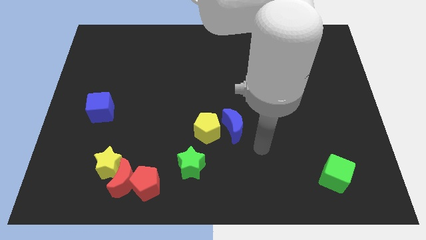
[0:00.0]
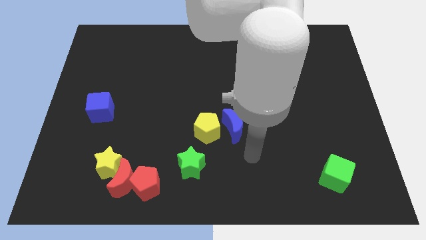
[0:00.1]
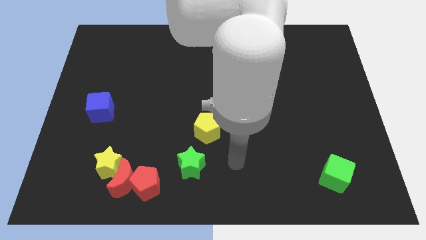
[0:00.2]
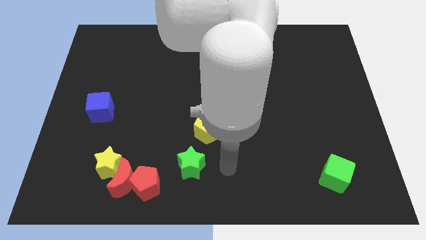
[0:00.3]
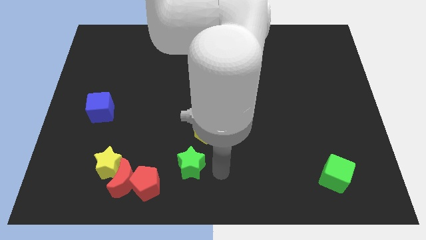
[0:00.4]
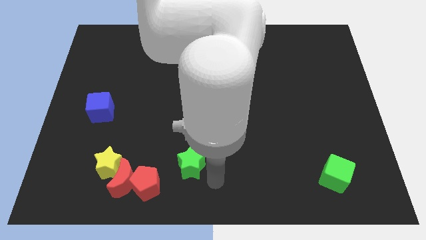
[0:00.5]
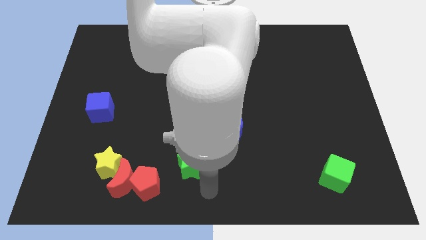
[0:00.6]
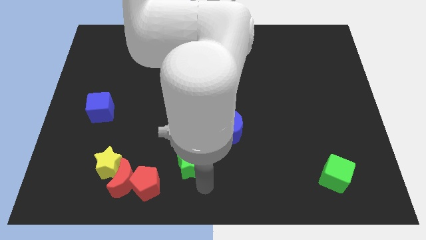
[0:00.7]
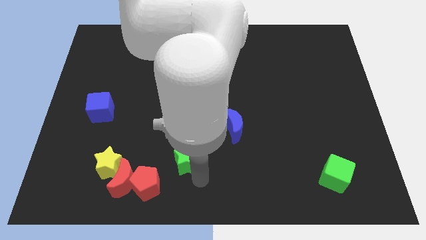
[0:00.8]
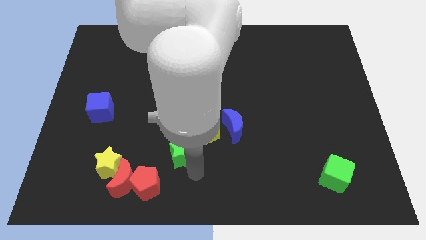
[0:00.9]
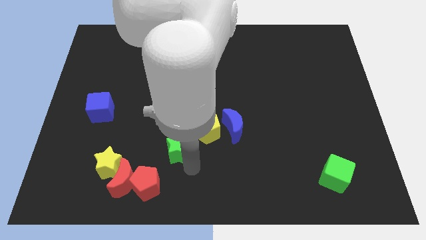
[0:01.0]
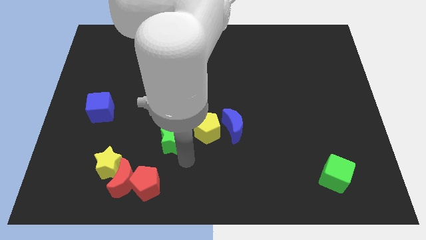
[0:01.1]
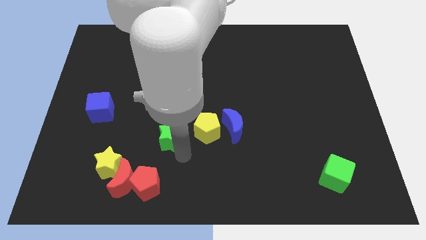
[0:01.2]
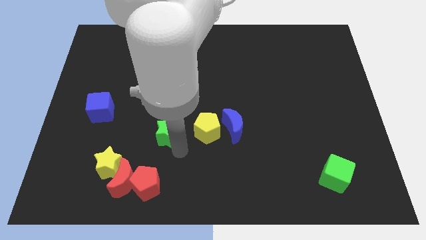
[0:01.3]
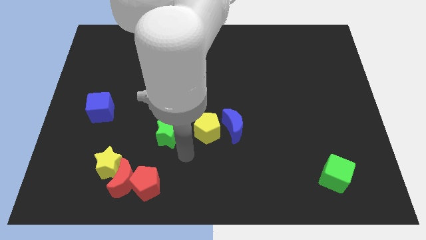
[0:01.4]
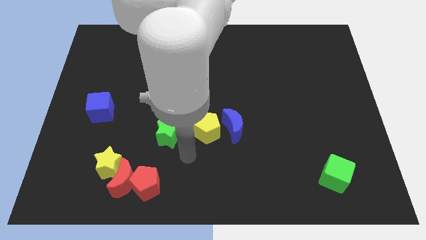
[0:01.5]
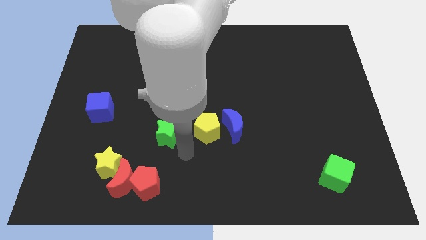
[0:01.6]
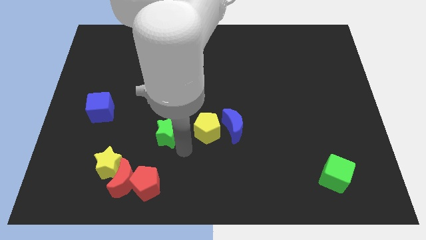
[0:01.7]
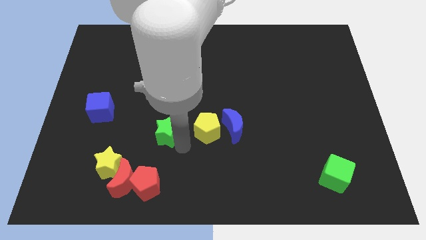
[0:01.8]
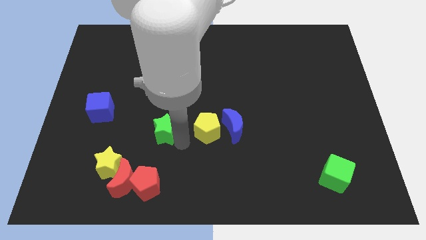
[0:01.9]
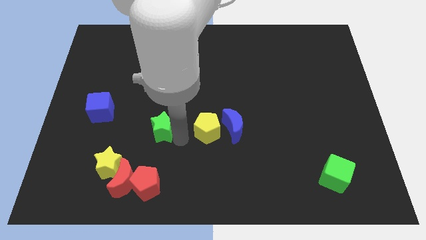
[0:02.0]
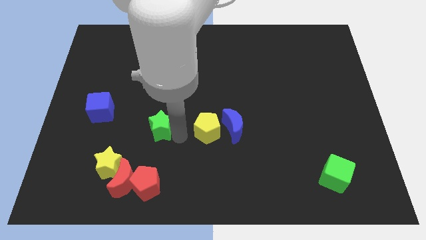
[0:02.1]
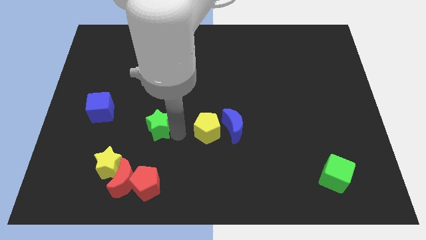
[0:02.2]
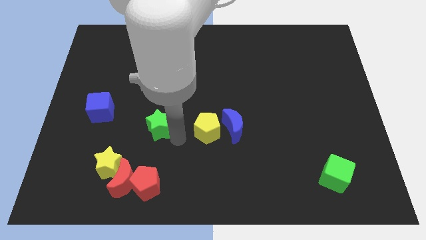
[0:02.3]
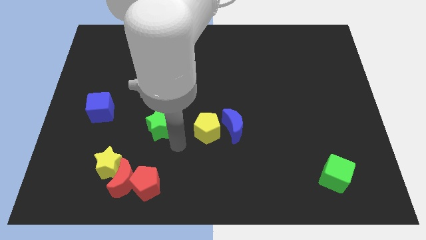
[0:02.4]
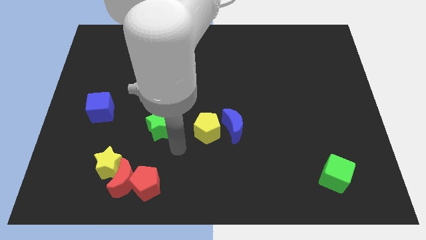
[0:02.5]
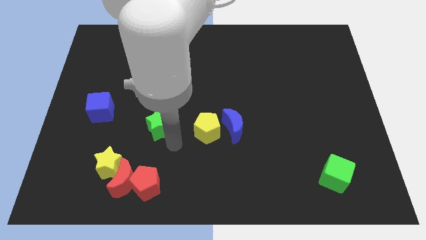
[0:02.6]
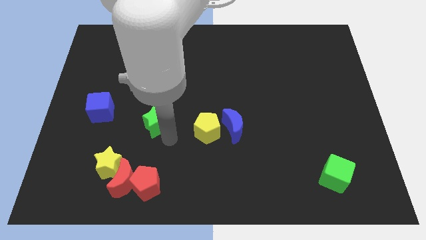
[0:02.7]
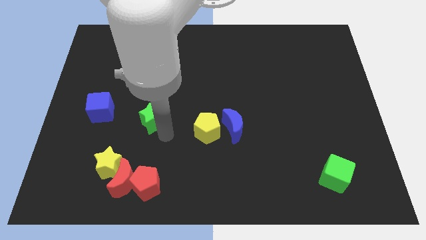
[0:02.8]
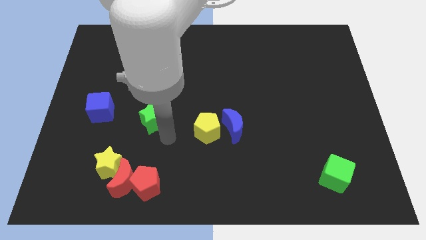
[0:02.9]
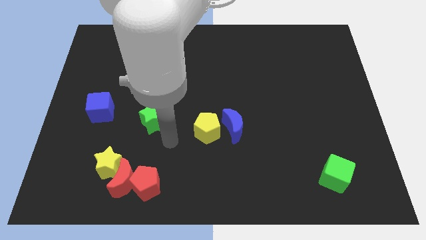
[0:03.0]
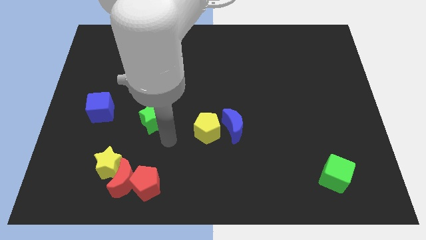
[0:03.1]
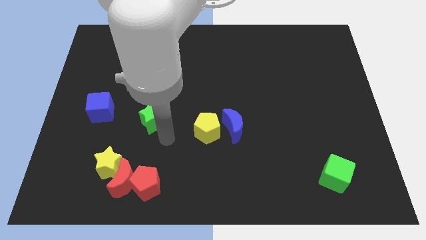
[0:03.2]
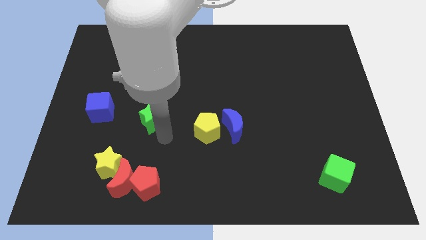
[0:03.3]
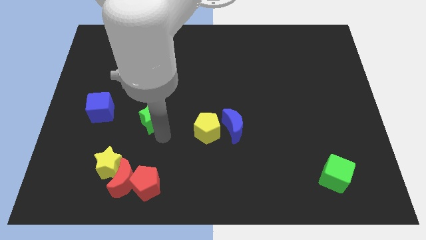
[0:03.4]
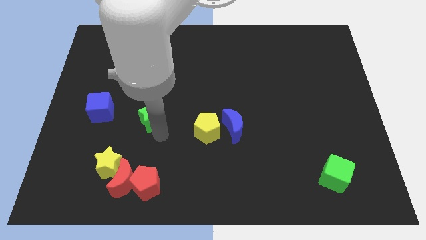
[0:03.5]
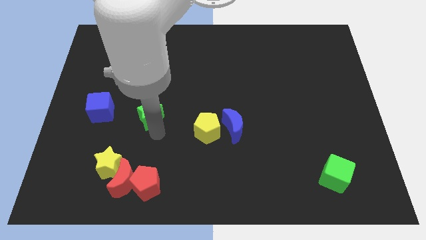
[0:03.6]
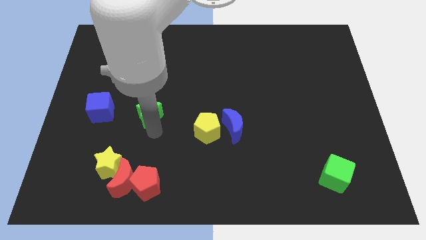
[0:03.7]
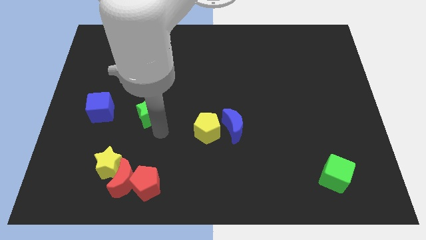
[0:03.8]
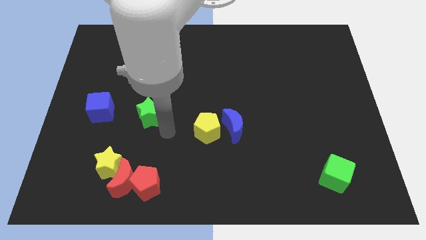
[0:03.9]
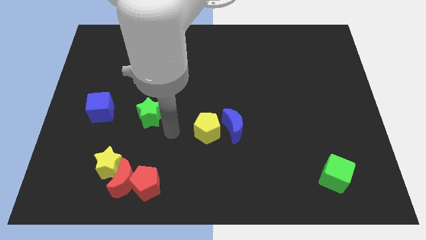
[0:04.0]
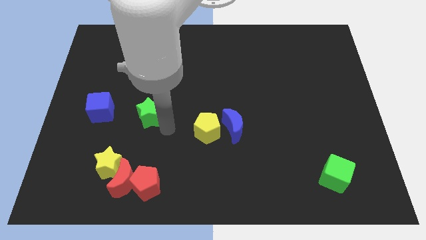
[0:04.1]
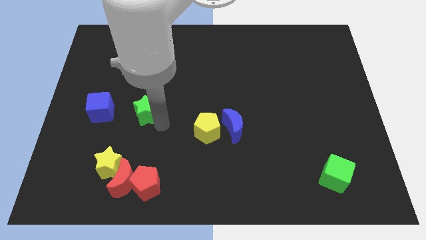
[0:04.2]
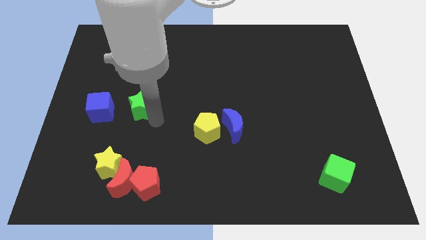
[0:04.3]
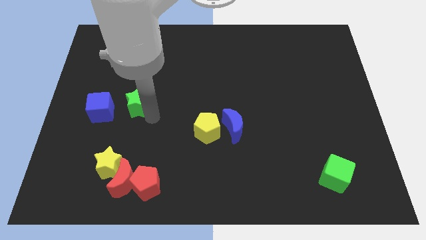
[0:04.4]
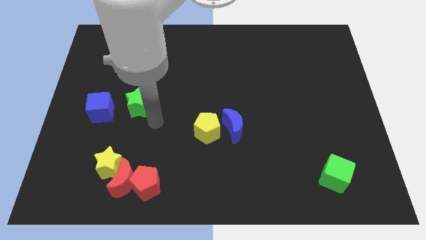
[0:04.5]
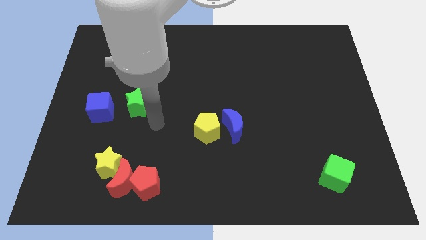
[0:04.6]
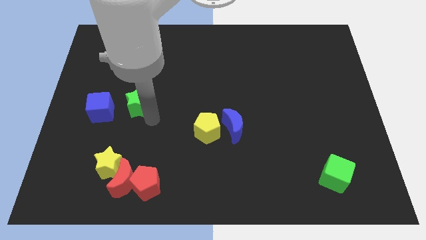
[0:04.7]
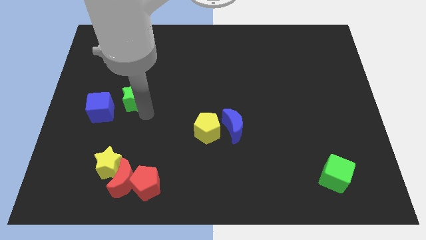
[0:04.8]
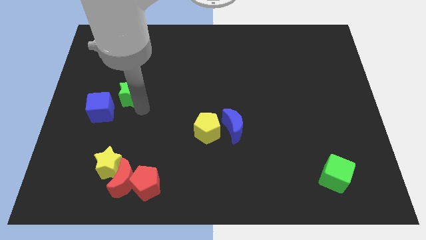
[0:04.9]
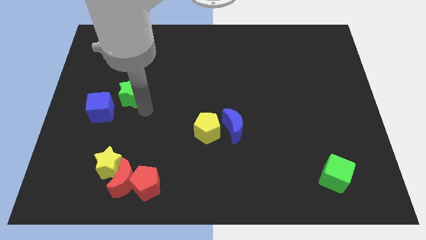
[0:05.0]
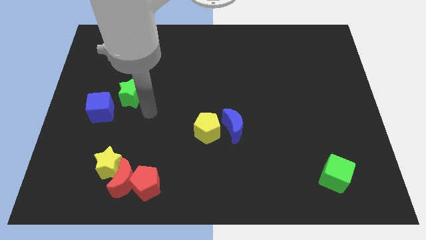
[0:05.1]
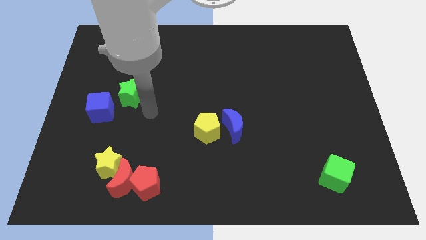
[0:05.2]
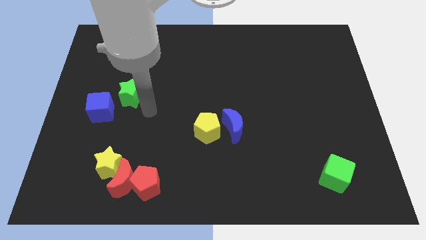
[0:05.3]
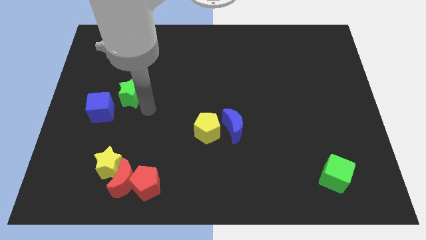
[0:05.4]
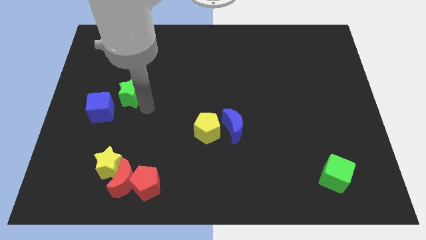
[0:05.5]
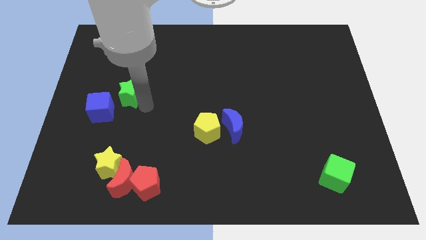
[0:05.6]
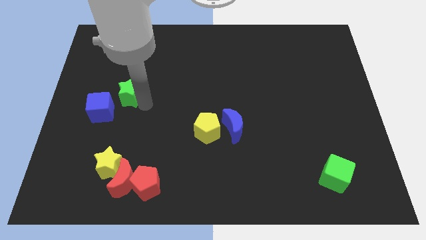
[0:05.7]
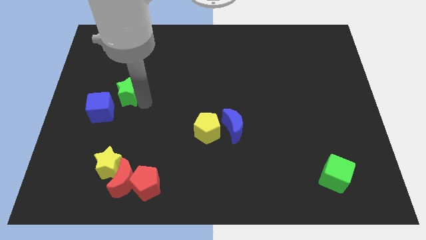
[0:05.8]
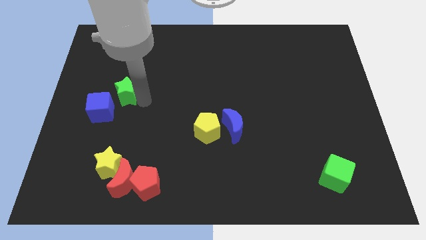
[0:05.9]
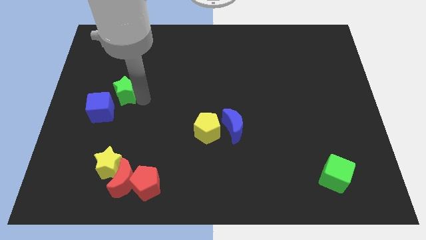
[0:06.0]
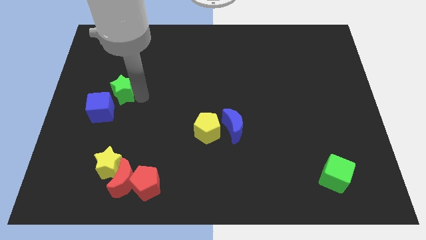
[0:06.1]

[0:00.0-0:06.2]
slide the green star to the top of the blue cube
